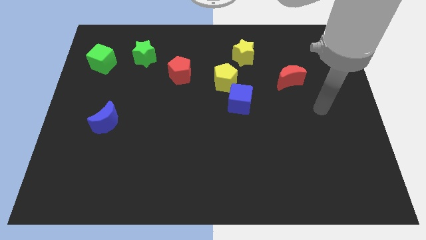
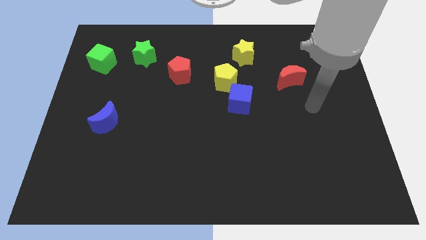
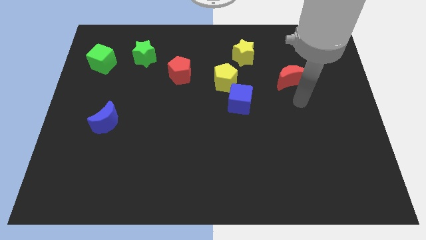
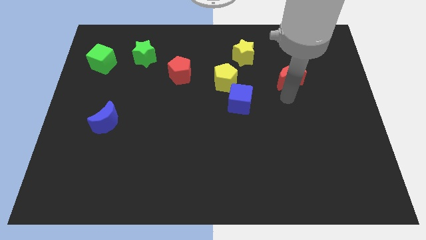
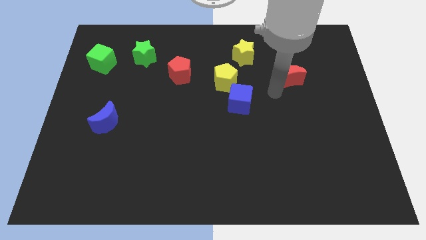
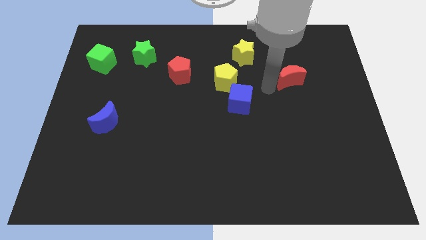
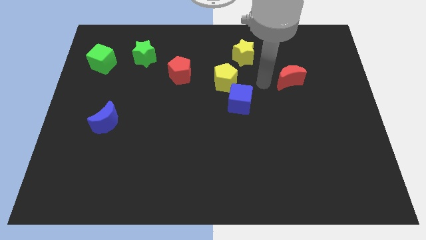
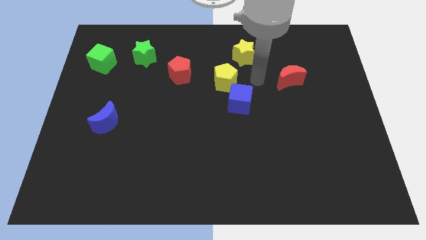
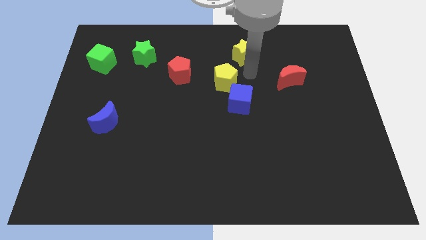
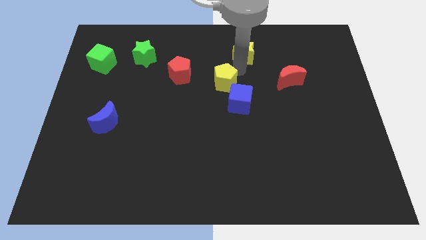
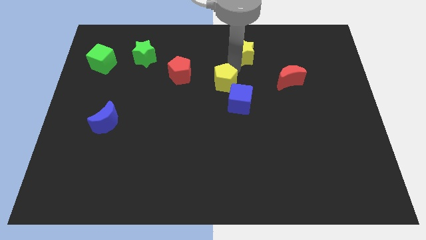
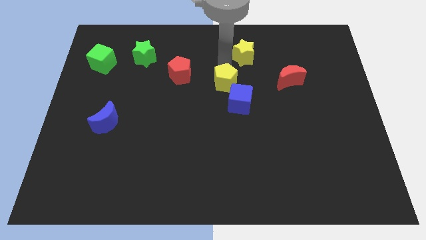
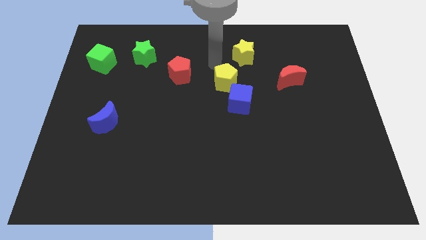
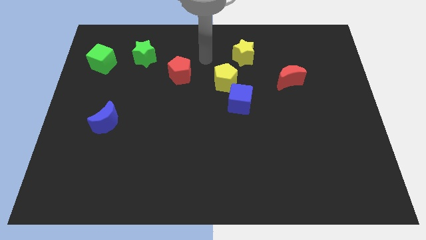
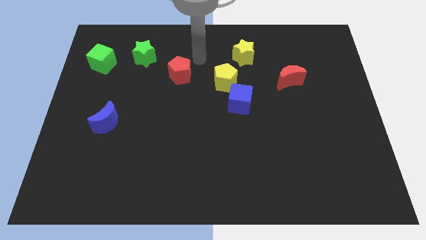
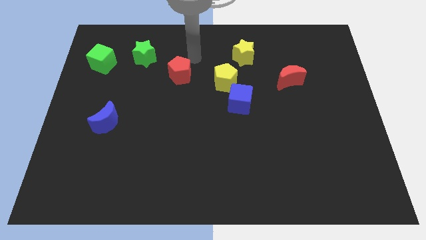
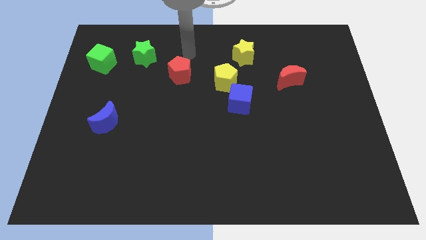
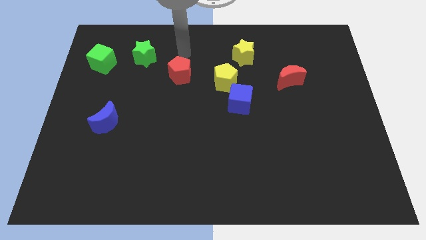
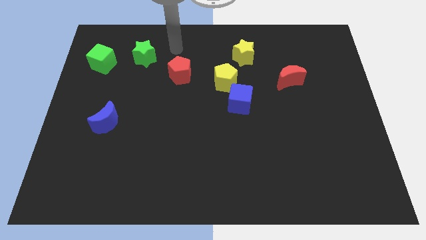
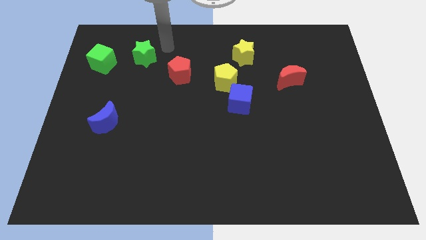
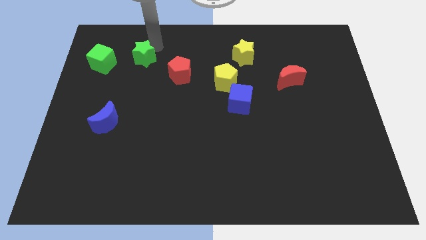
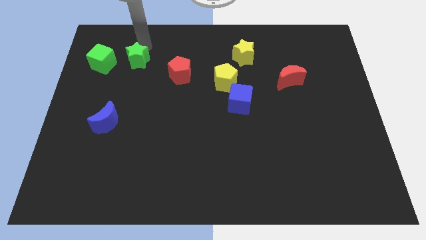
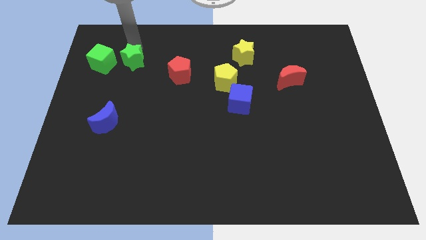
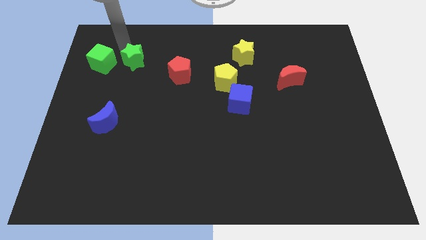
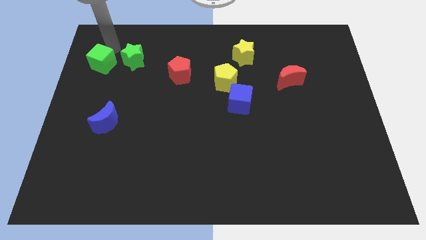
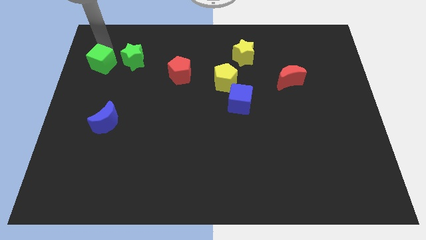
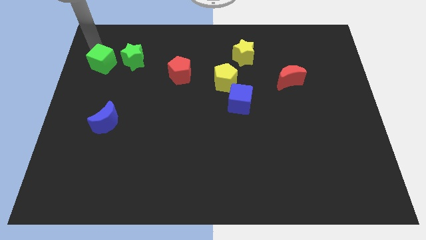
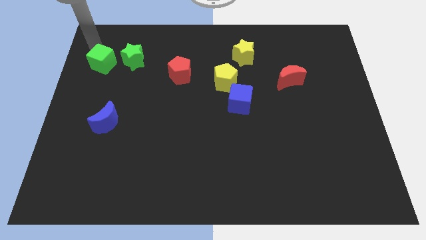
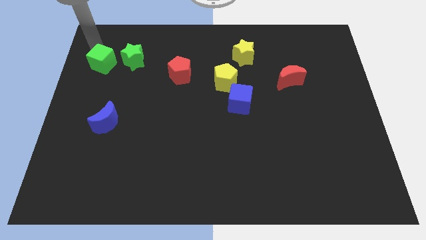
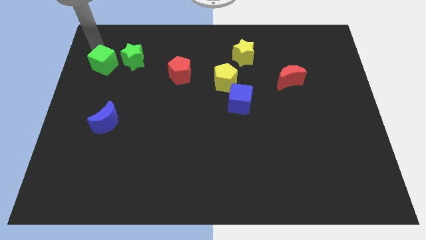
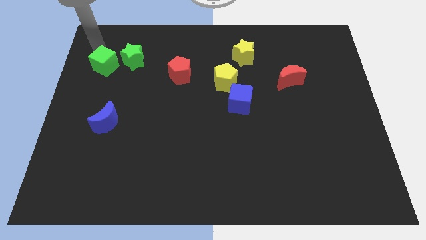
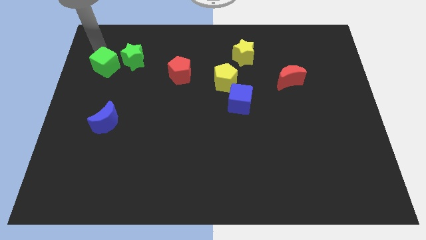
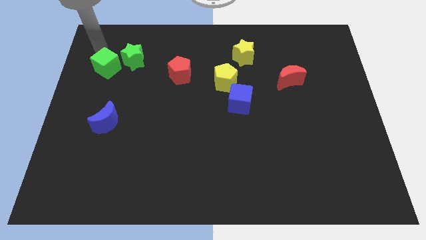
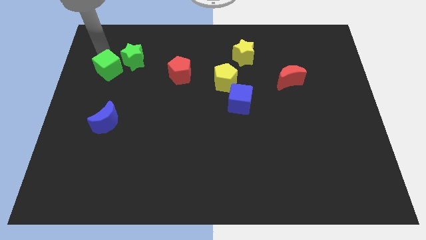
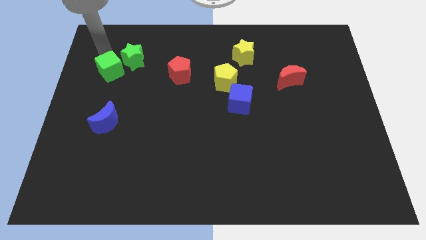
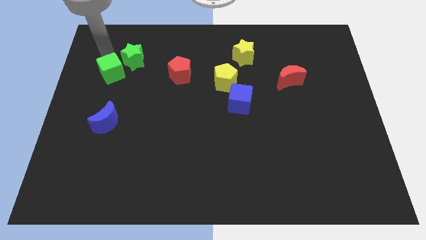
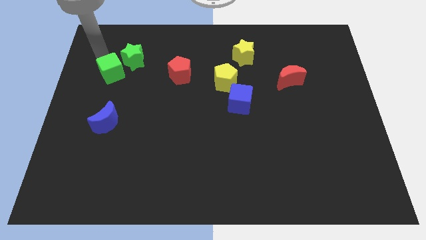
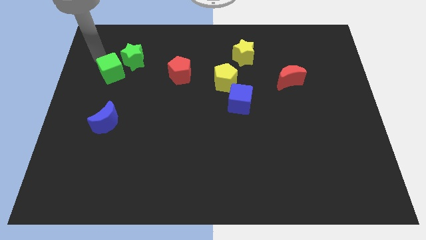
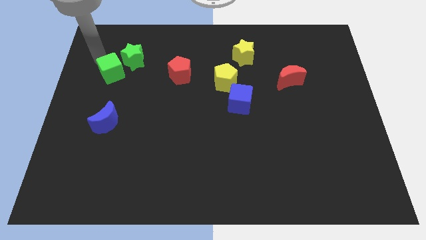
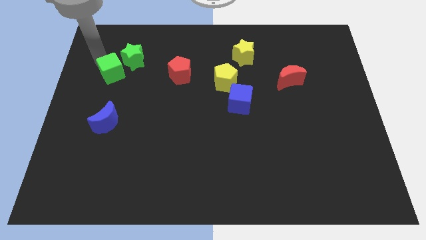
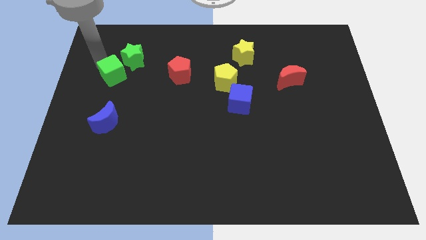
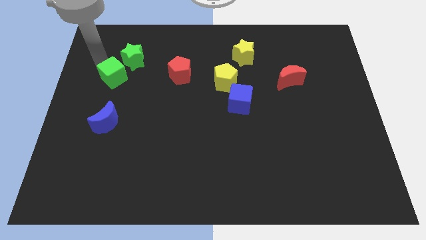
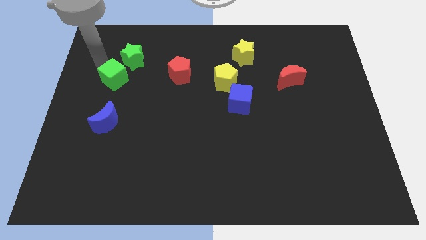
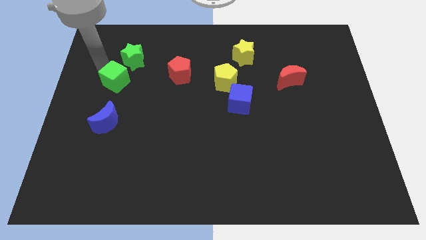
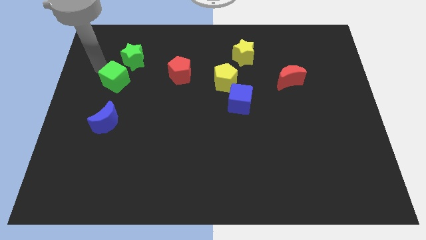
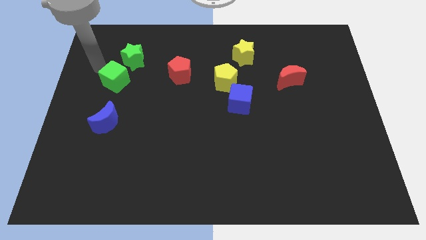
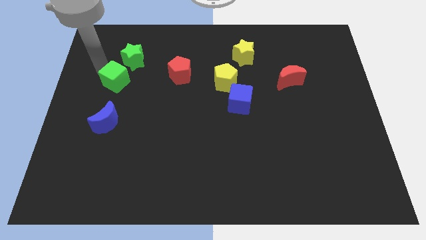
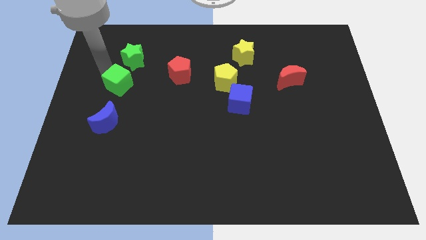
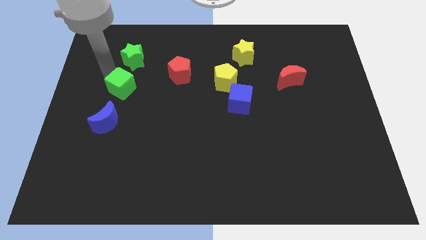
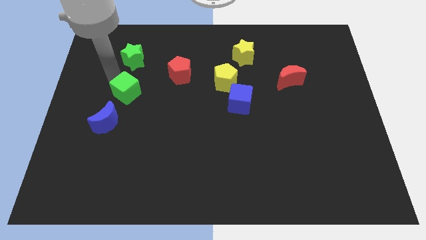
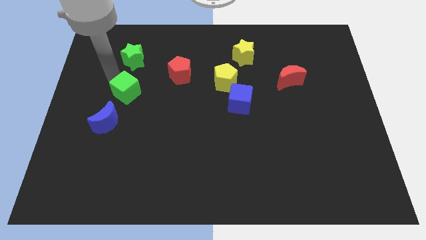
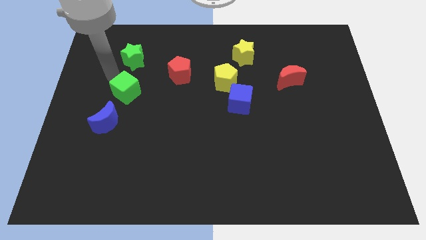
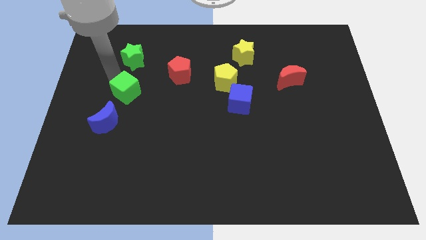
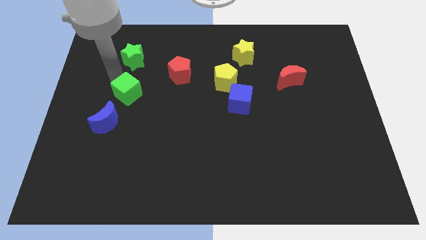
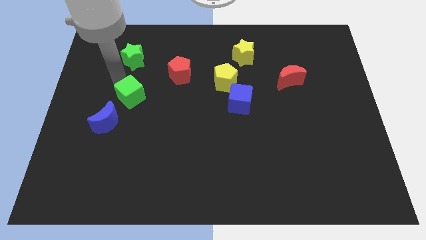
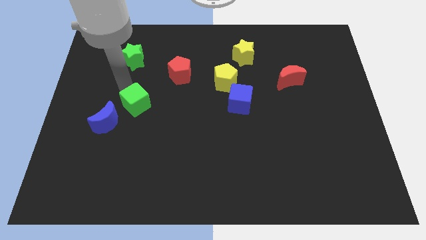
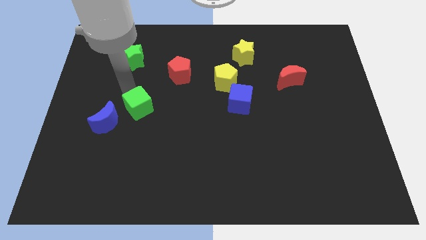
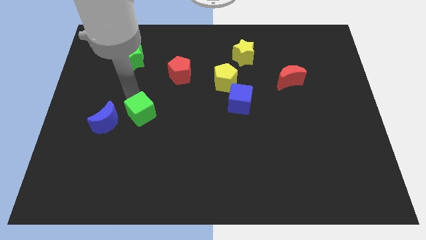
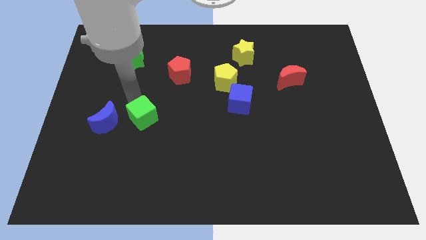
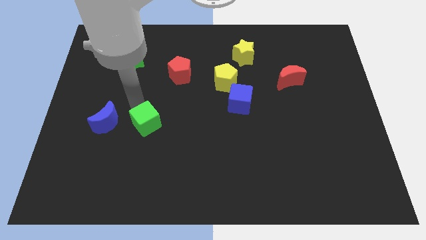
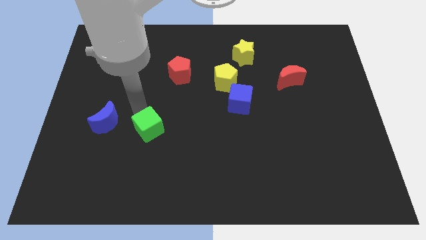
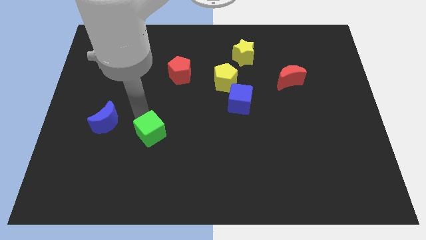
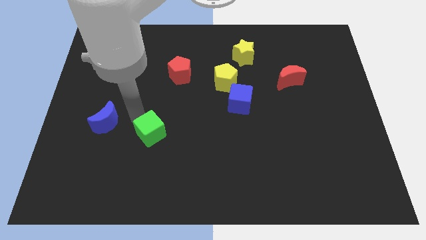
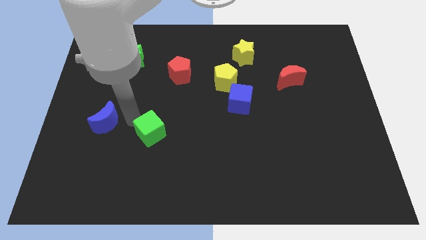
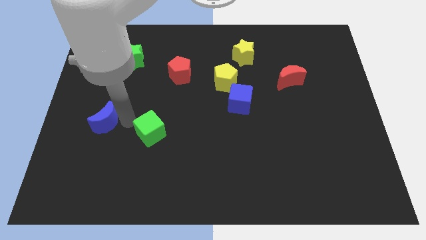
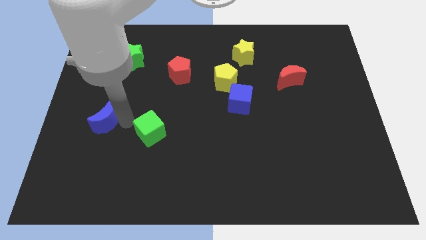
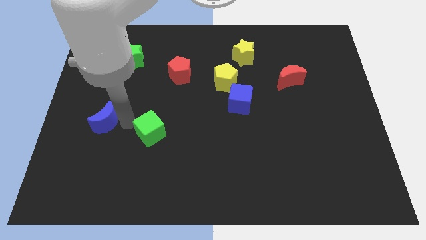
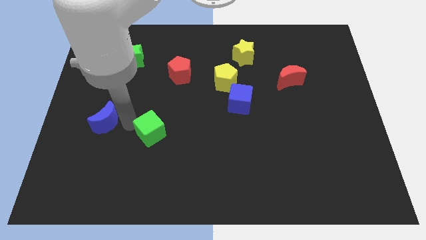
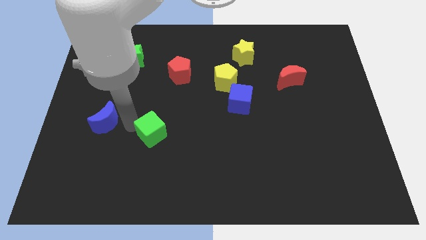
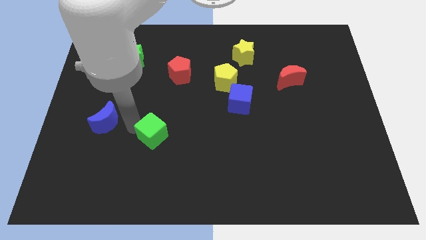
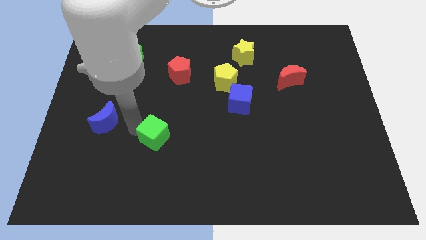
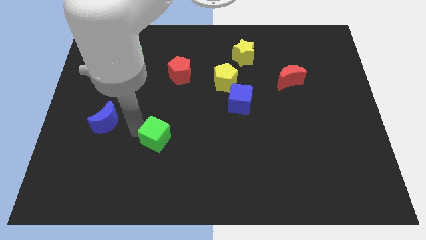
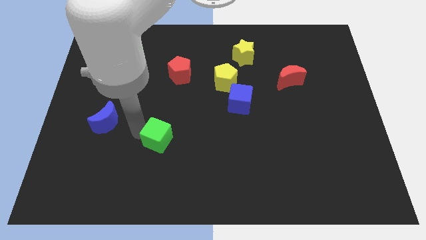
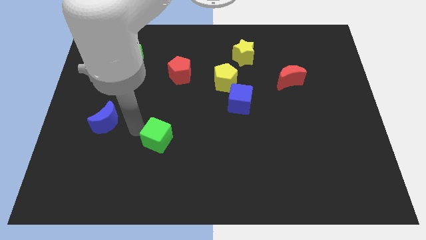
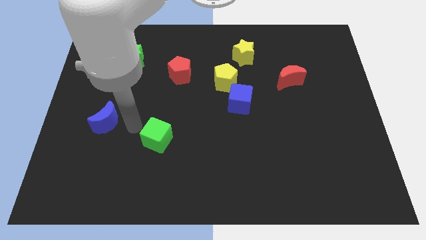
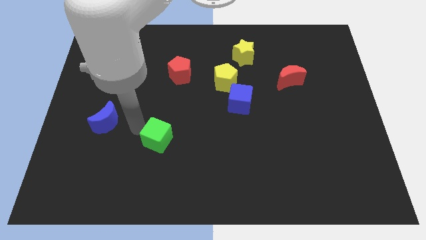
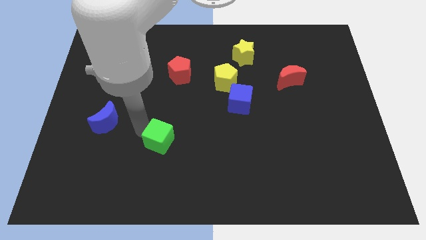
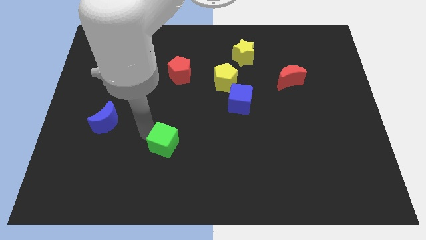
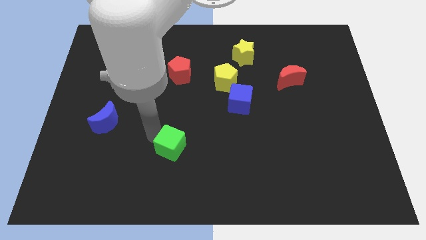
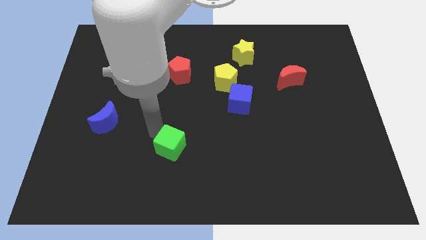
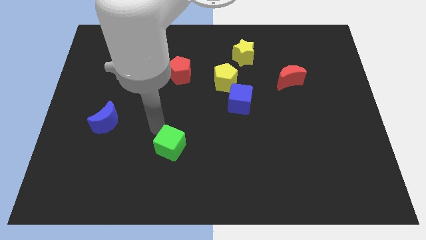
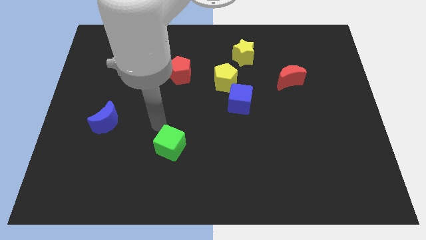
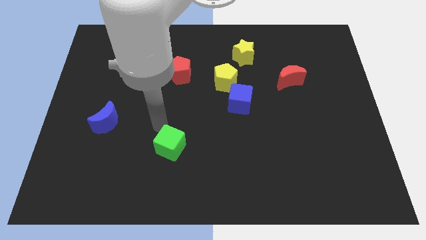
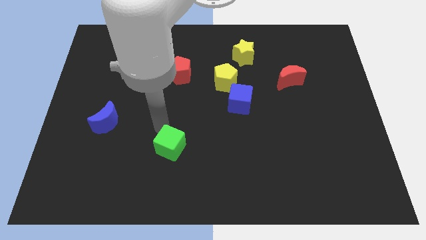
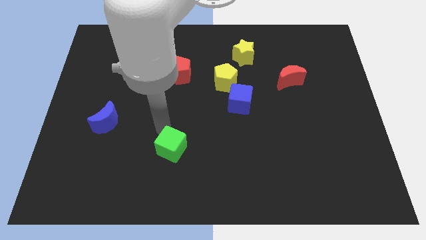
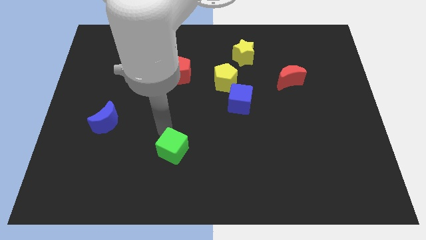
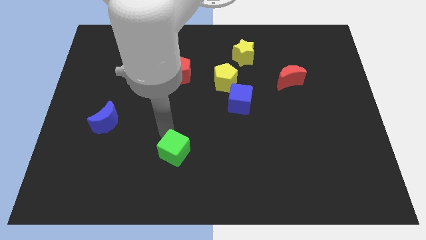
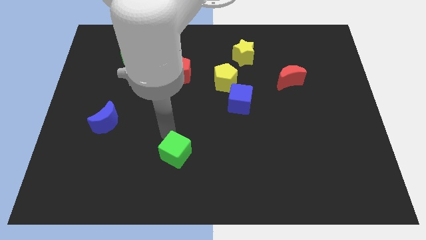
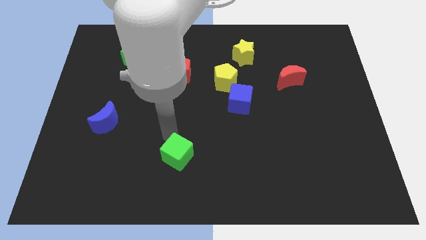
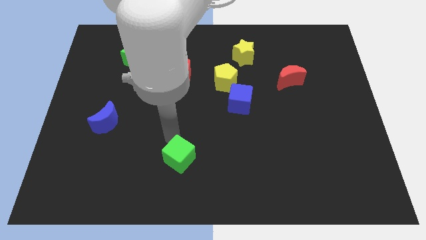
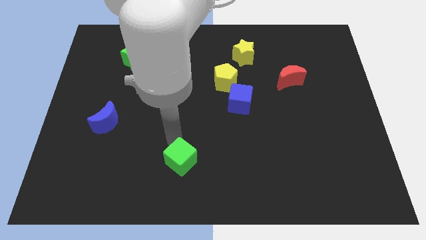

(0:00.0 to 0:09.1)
move the green cube to the bottom side
